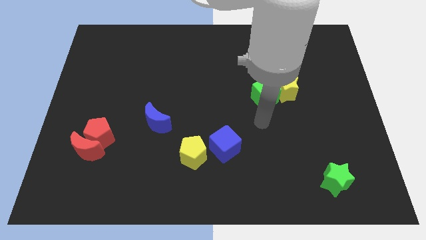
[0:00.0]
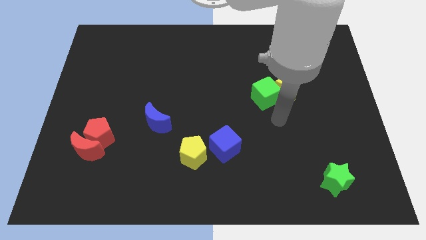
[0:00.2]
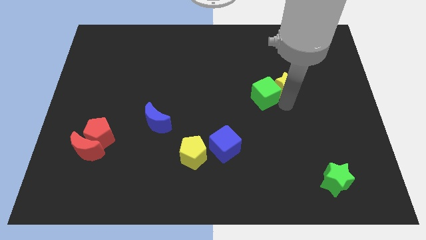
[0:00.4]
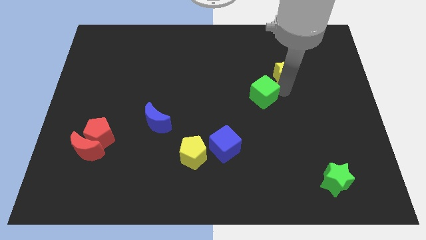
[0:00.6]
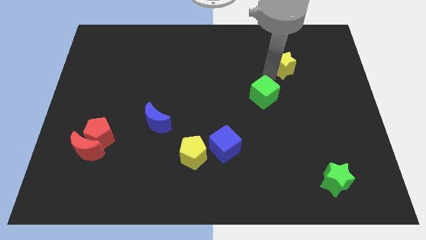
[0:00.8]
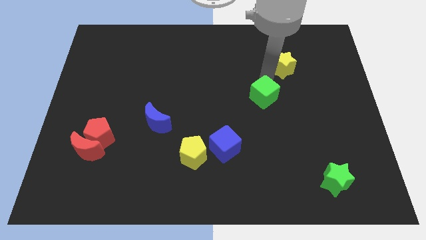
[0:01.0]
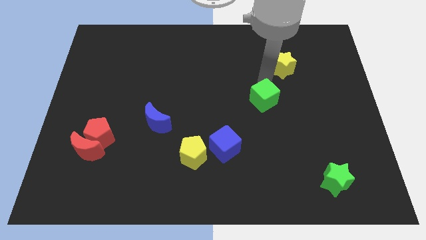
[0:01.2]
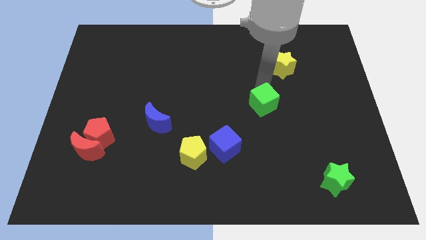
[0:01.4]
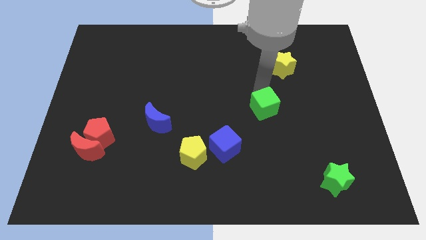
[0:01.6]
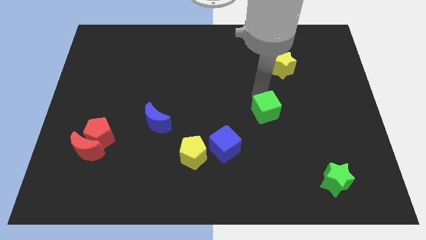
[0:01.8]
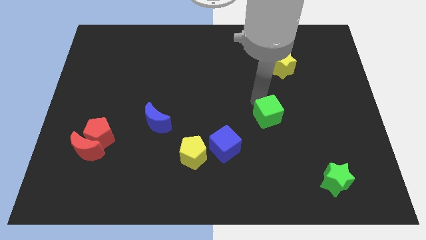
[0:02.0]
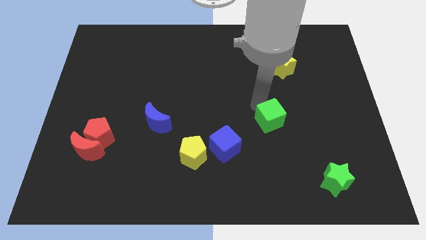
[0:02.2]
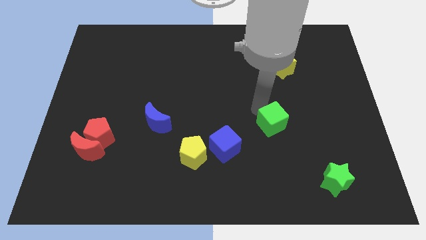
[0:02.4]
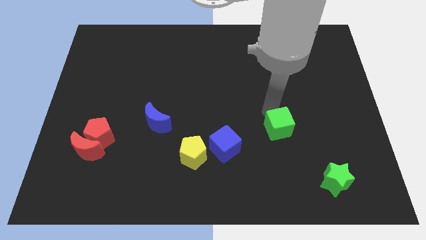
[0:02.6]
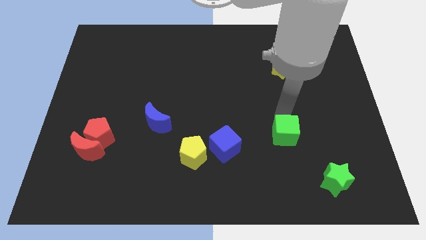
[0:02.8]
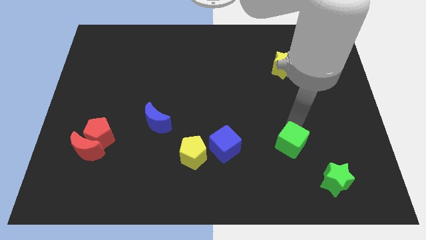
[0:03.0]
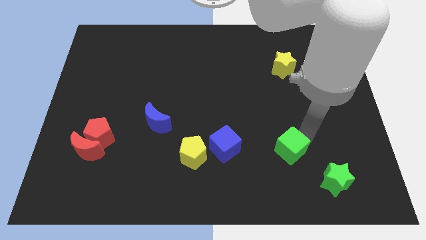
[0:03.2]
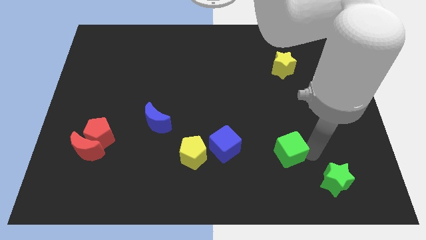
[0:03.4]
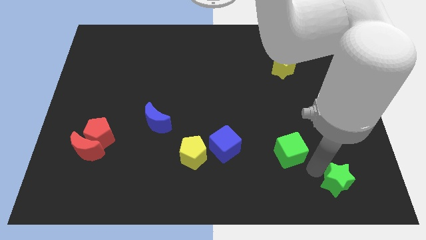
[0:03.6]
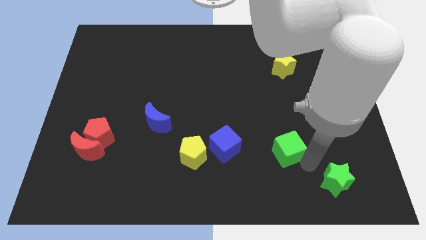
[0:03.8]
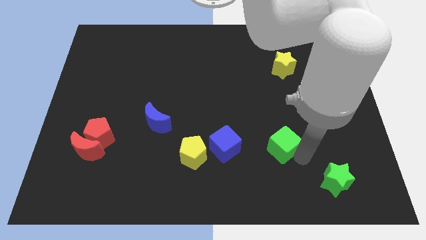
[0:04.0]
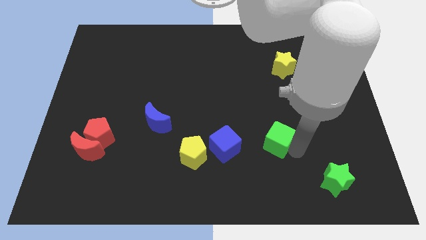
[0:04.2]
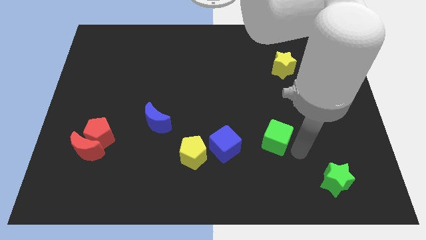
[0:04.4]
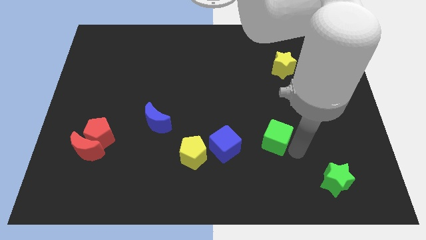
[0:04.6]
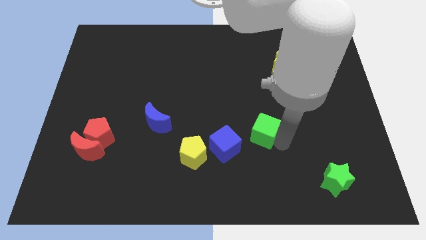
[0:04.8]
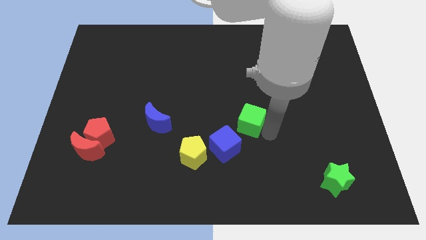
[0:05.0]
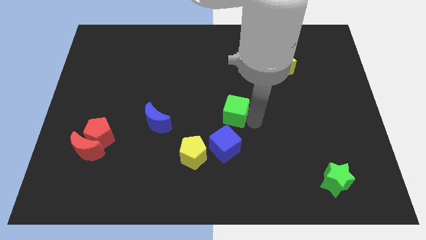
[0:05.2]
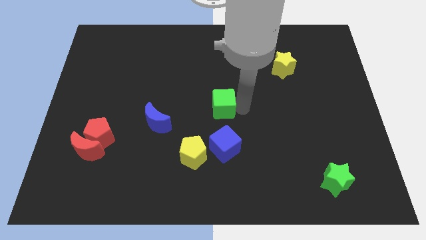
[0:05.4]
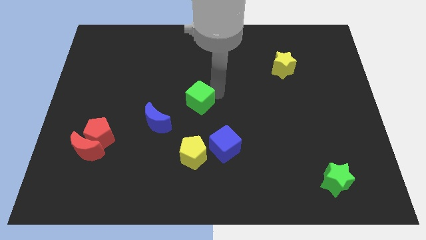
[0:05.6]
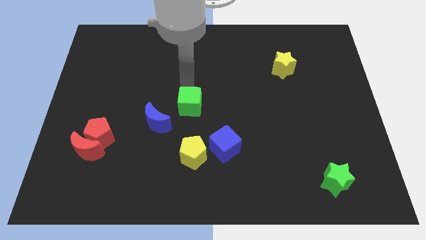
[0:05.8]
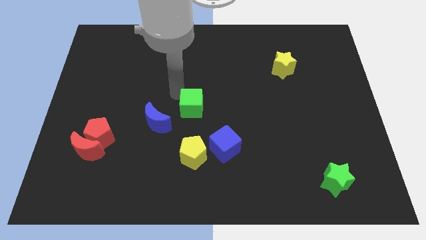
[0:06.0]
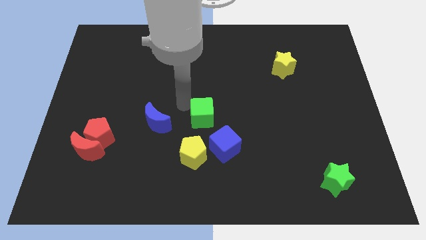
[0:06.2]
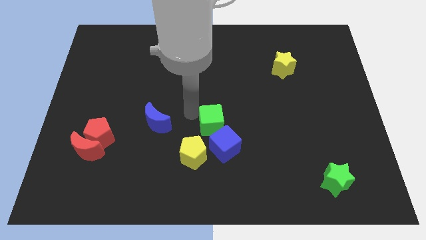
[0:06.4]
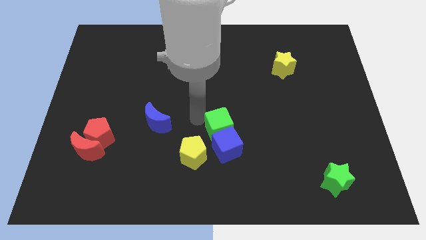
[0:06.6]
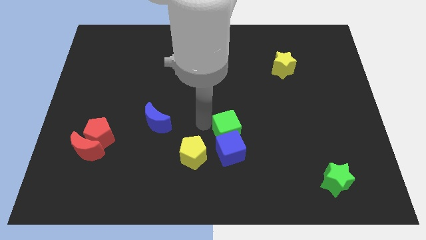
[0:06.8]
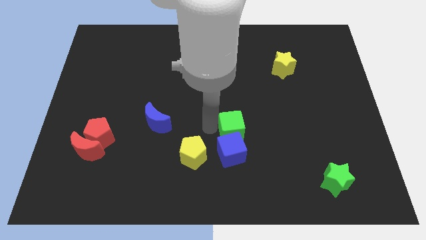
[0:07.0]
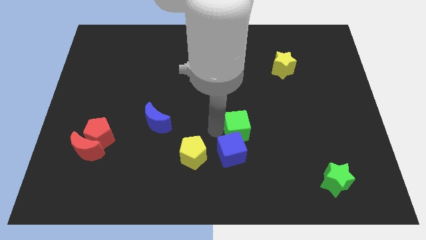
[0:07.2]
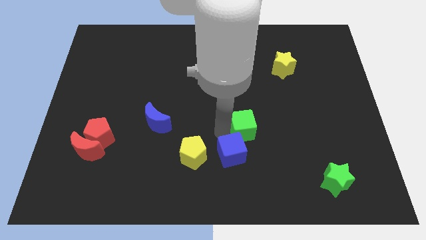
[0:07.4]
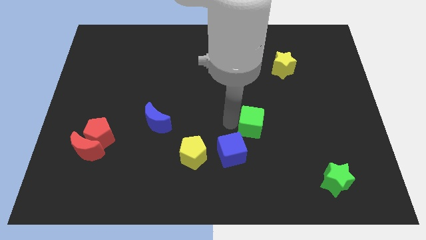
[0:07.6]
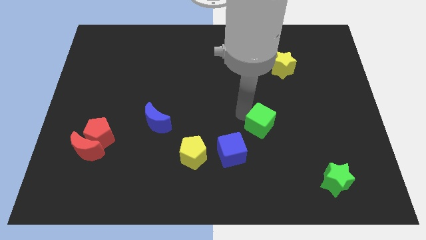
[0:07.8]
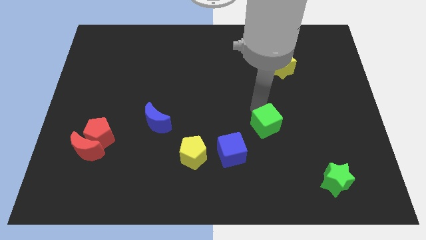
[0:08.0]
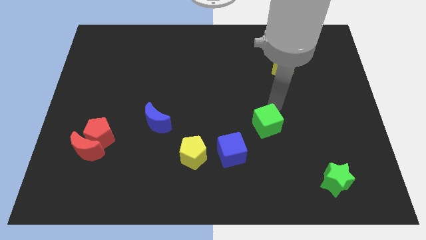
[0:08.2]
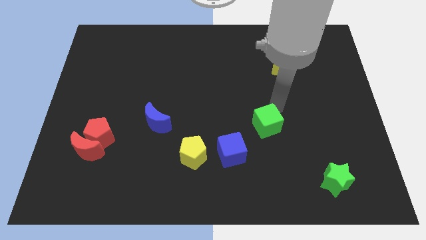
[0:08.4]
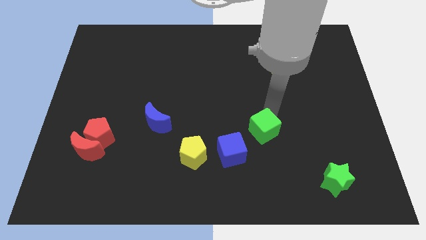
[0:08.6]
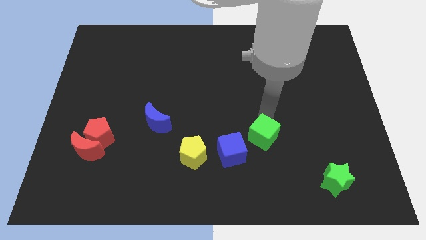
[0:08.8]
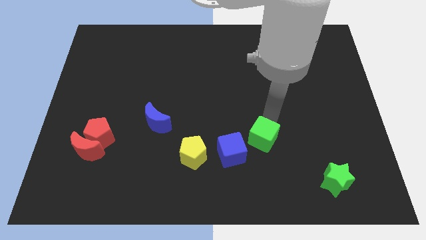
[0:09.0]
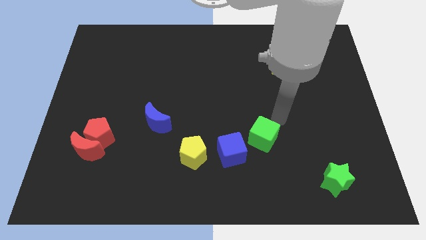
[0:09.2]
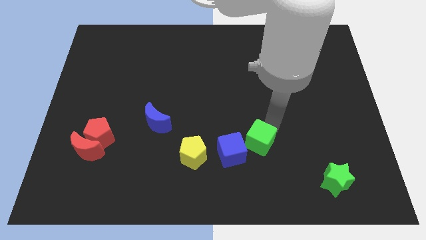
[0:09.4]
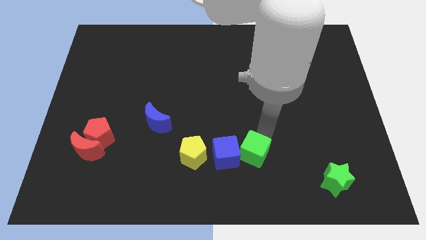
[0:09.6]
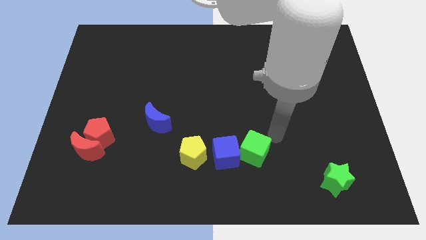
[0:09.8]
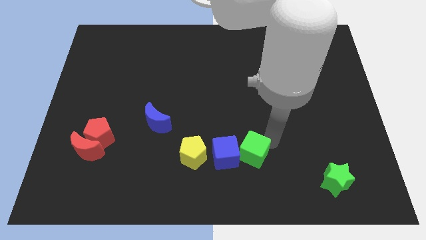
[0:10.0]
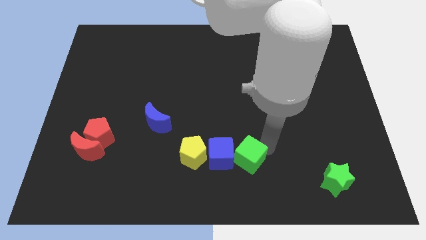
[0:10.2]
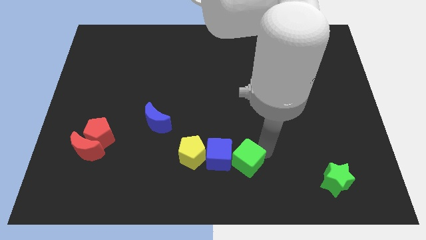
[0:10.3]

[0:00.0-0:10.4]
push the green cube to the bottom

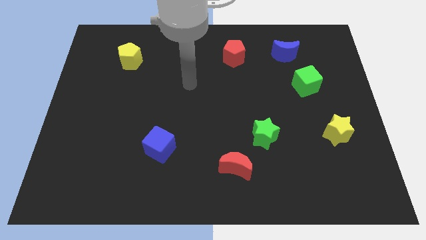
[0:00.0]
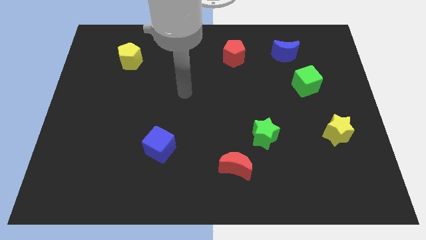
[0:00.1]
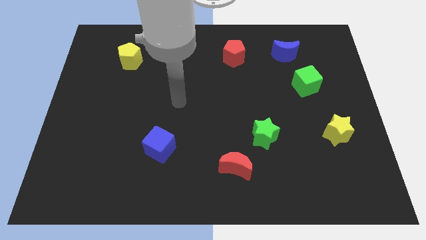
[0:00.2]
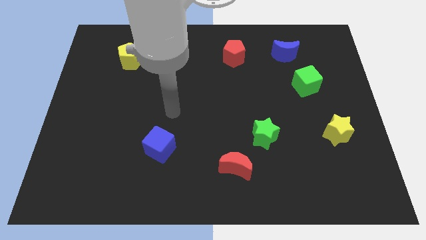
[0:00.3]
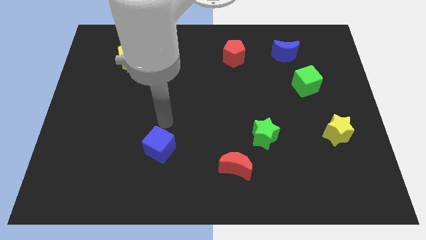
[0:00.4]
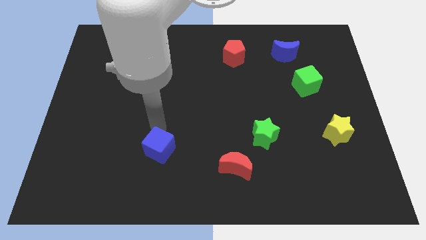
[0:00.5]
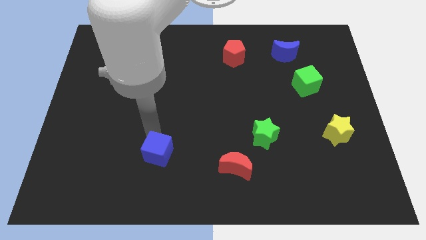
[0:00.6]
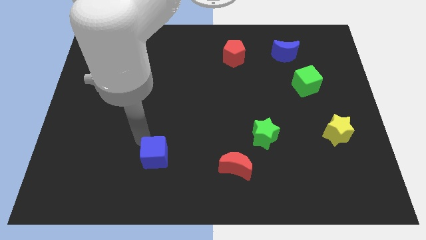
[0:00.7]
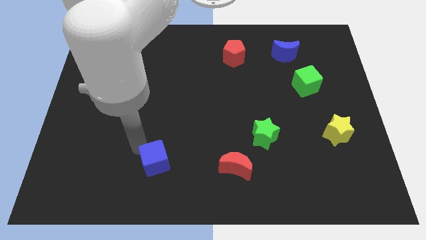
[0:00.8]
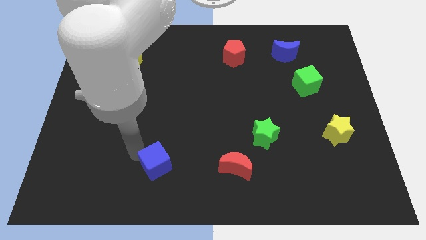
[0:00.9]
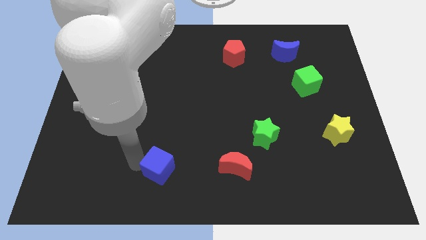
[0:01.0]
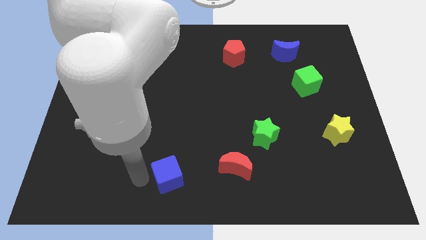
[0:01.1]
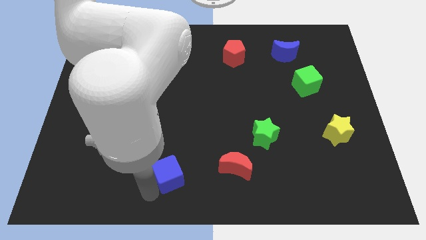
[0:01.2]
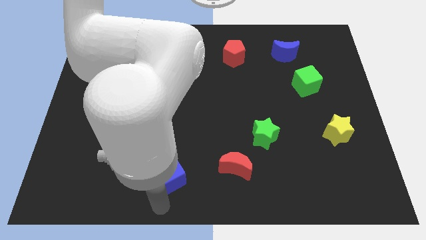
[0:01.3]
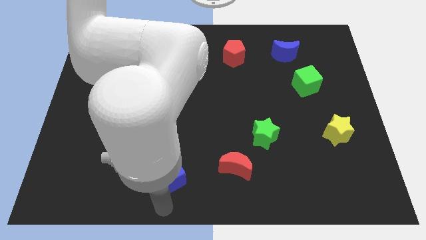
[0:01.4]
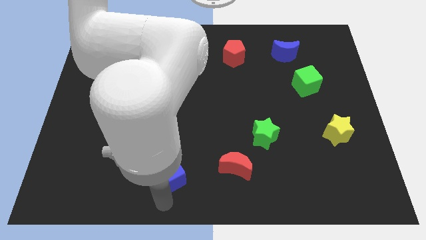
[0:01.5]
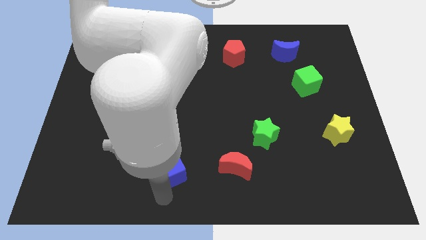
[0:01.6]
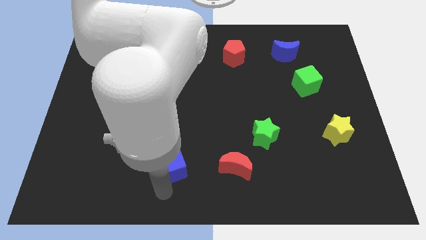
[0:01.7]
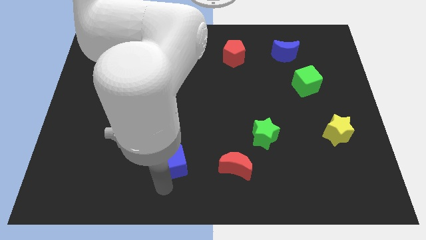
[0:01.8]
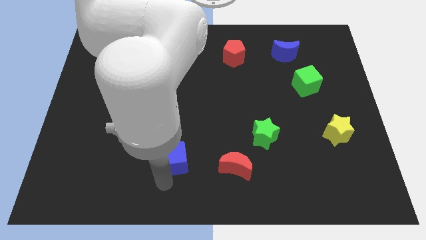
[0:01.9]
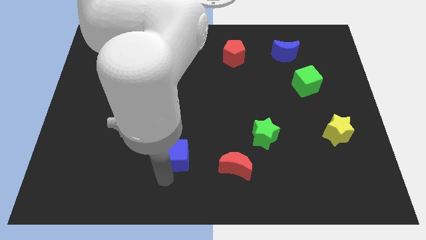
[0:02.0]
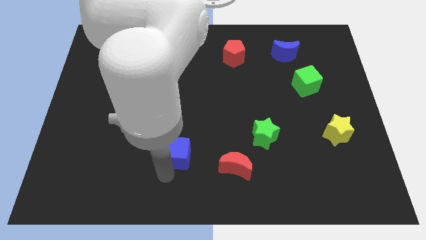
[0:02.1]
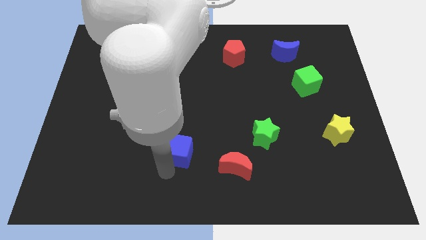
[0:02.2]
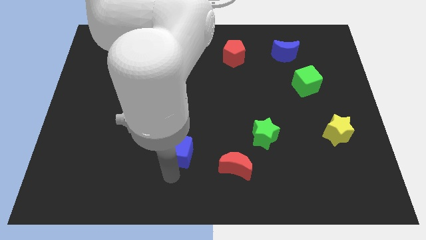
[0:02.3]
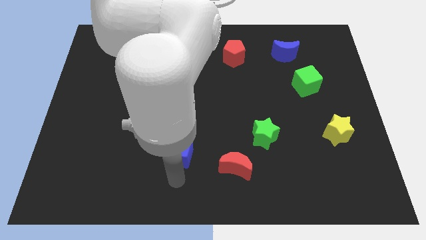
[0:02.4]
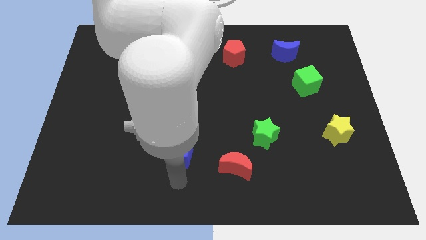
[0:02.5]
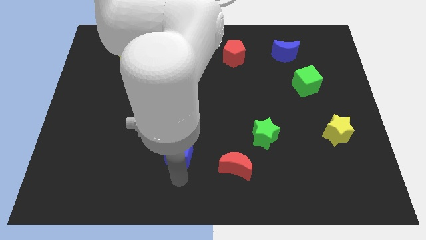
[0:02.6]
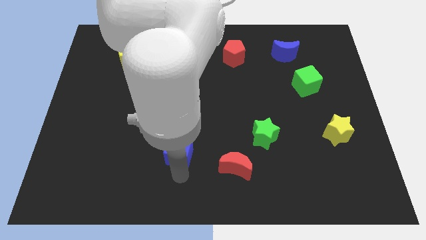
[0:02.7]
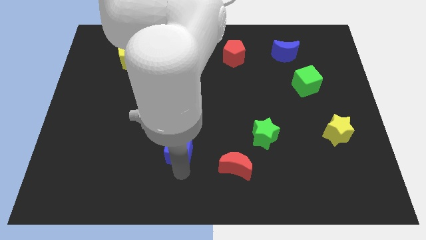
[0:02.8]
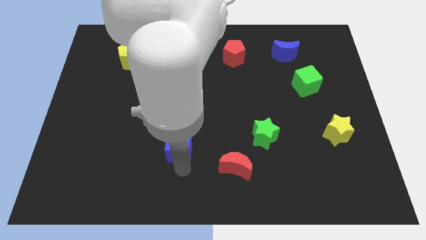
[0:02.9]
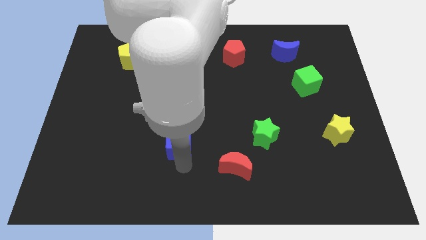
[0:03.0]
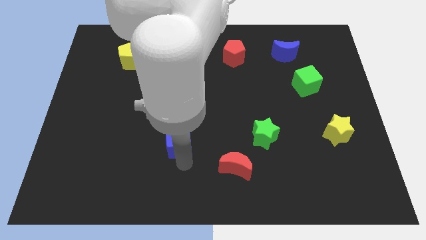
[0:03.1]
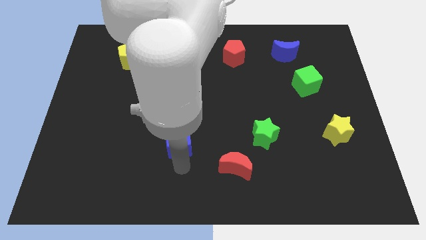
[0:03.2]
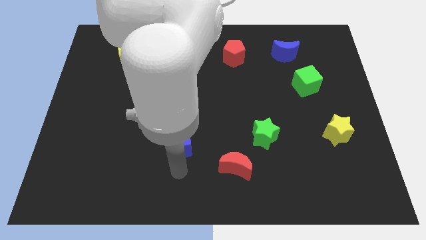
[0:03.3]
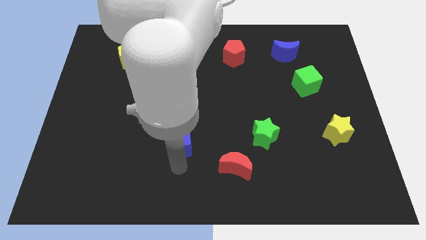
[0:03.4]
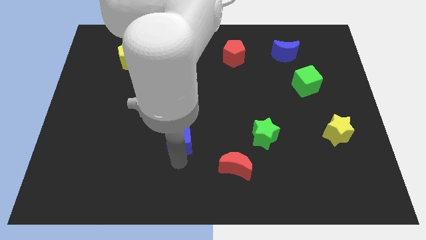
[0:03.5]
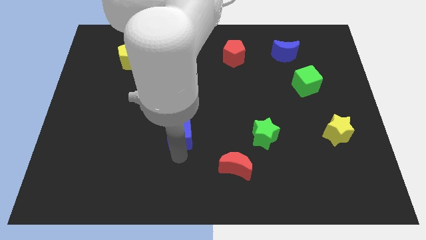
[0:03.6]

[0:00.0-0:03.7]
push the blue cube to the middle of the board
